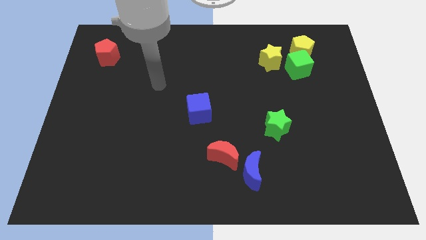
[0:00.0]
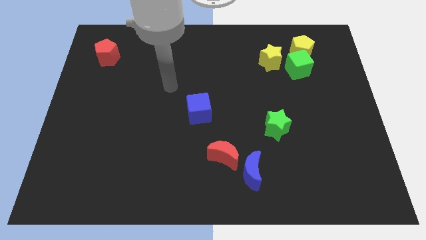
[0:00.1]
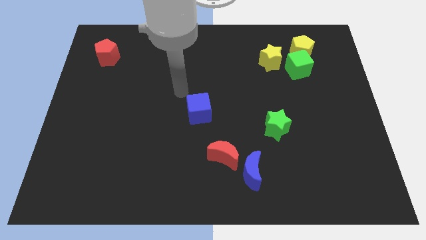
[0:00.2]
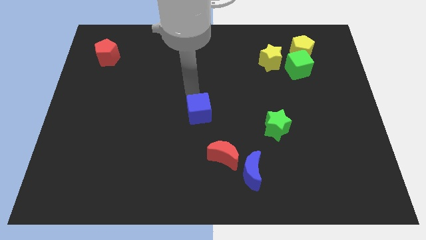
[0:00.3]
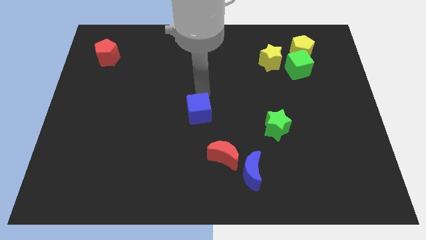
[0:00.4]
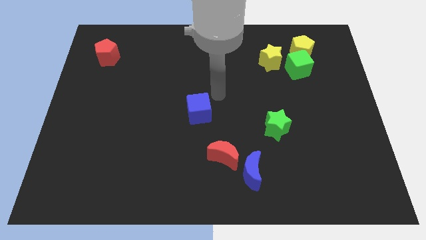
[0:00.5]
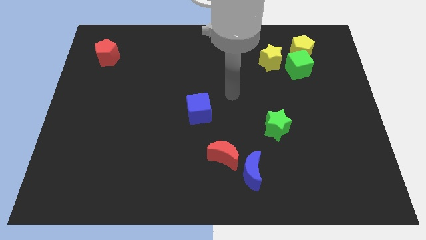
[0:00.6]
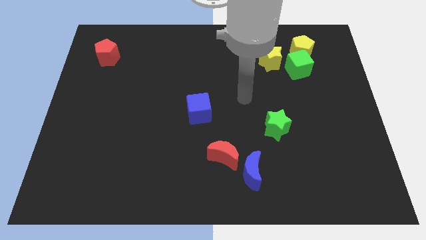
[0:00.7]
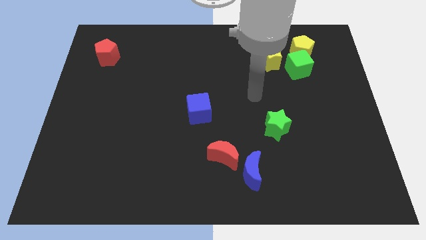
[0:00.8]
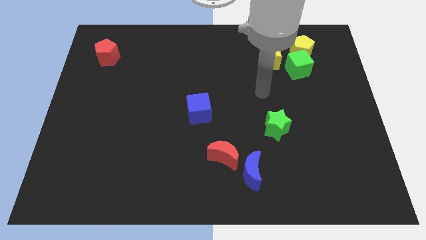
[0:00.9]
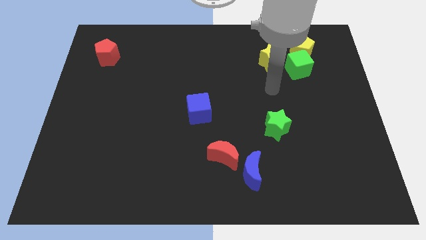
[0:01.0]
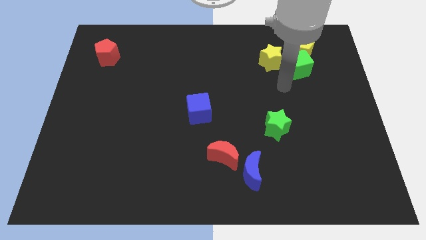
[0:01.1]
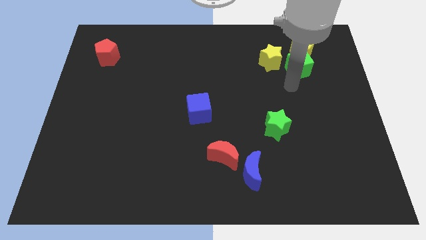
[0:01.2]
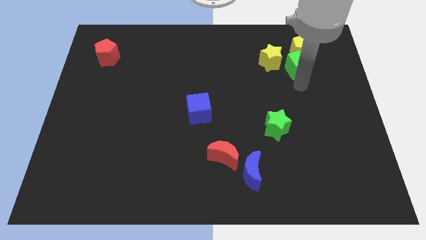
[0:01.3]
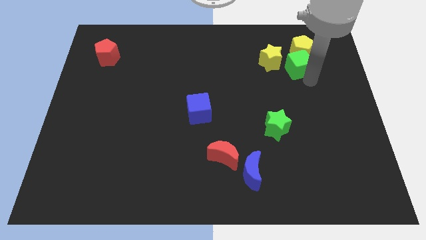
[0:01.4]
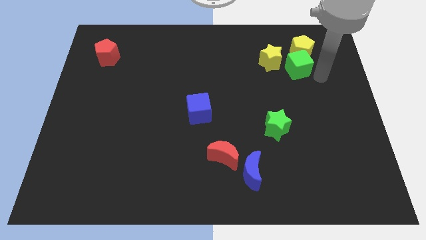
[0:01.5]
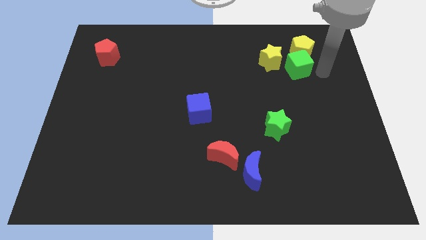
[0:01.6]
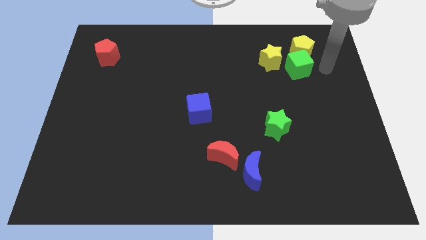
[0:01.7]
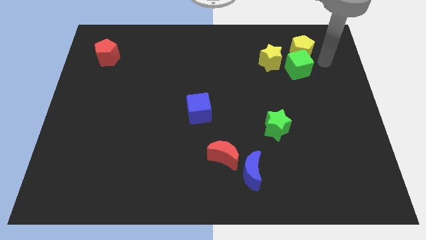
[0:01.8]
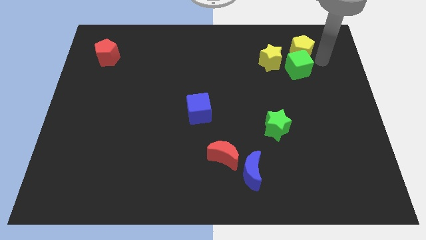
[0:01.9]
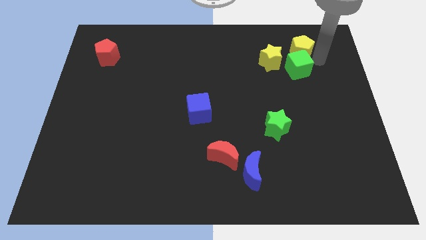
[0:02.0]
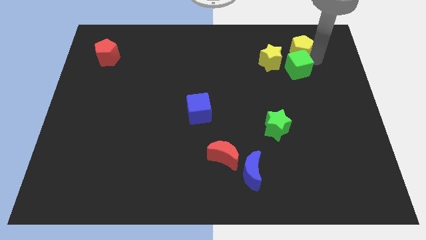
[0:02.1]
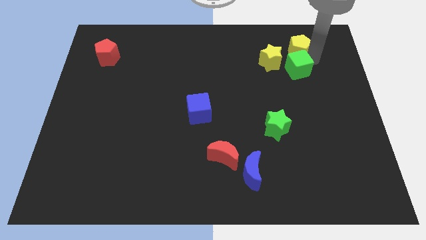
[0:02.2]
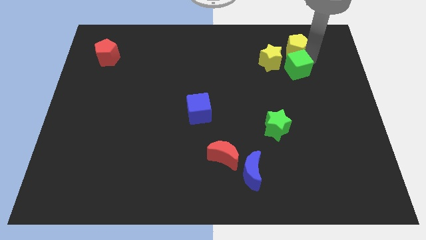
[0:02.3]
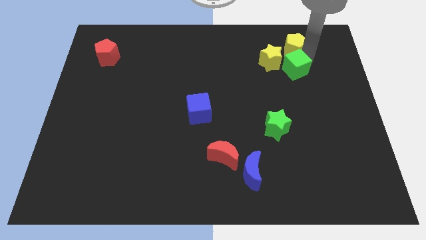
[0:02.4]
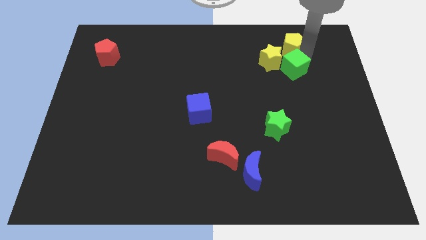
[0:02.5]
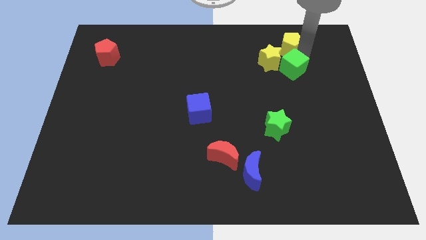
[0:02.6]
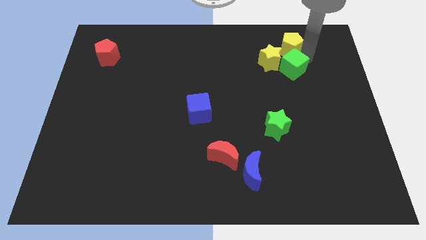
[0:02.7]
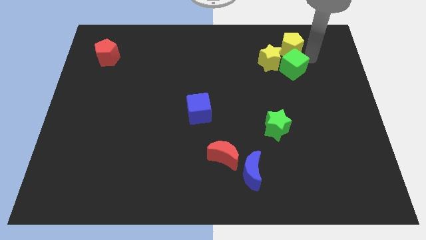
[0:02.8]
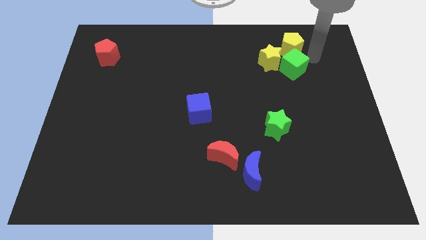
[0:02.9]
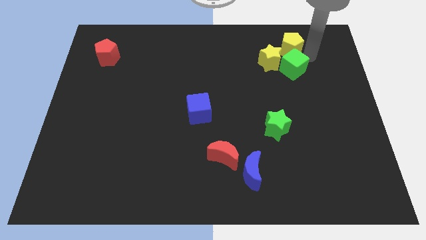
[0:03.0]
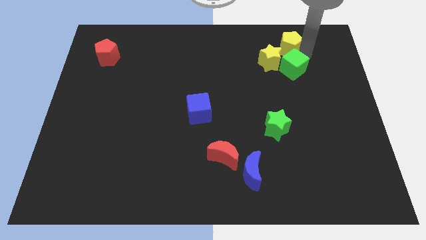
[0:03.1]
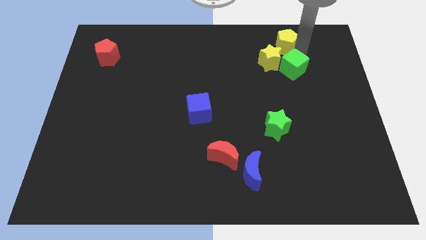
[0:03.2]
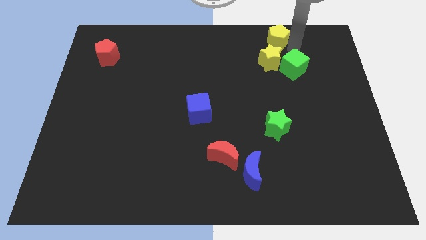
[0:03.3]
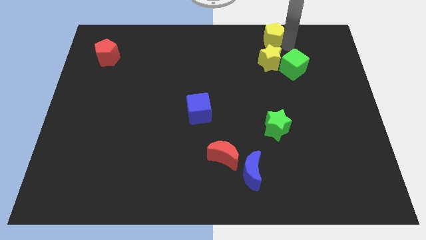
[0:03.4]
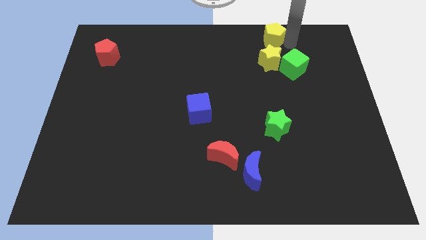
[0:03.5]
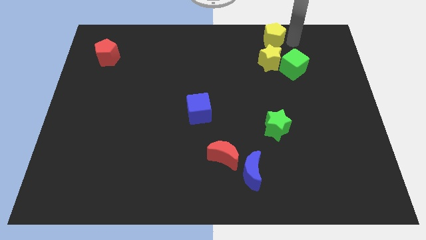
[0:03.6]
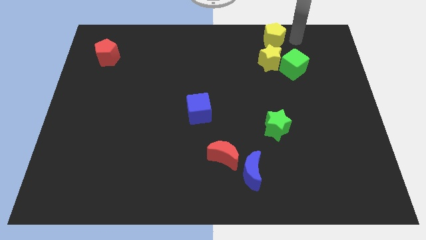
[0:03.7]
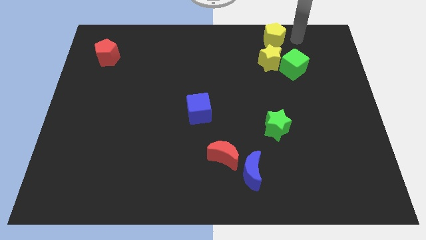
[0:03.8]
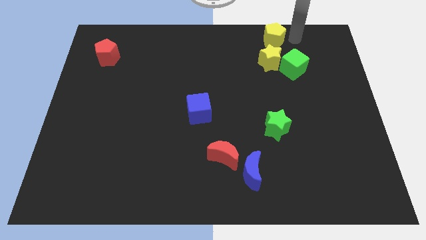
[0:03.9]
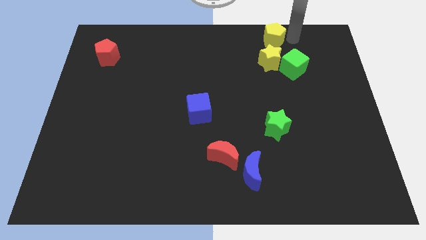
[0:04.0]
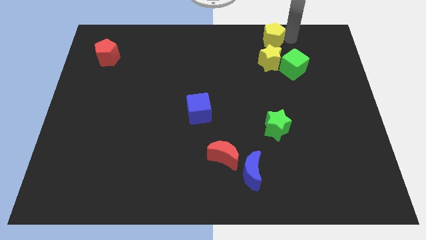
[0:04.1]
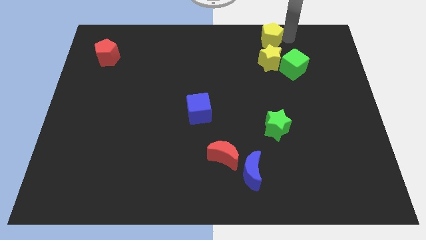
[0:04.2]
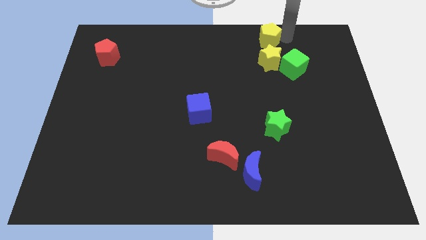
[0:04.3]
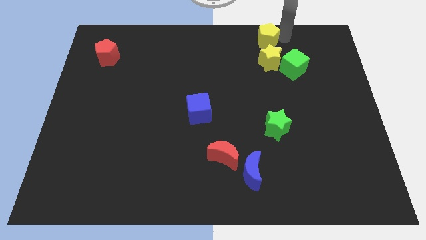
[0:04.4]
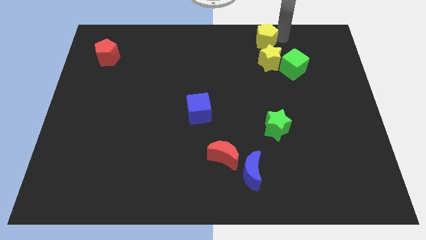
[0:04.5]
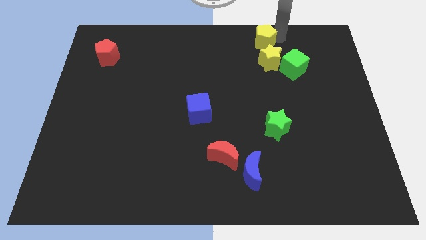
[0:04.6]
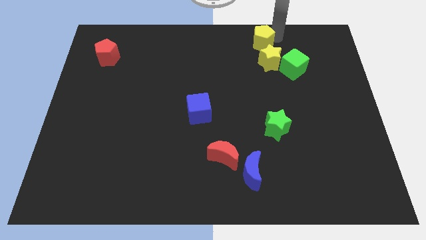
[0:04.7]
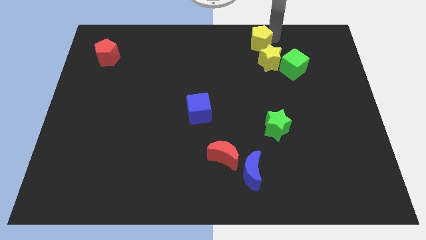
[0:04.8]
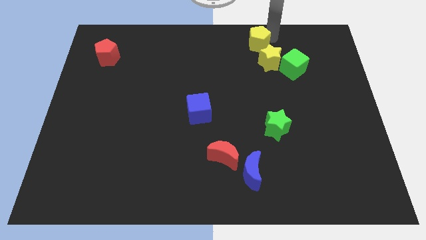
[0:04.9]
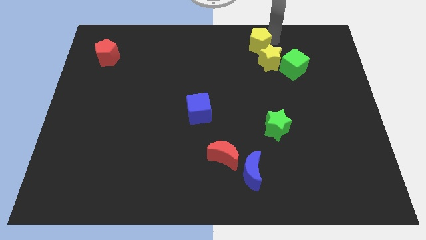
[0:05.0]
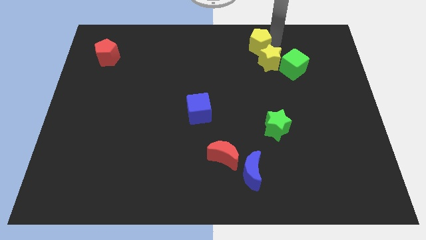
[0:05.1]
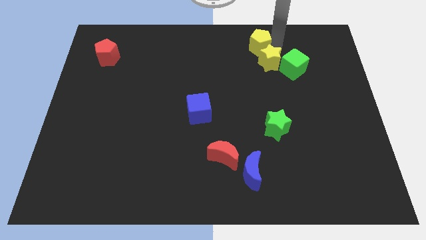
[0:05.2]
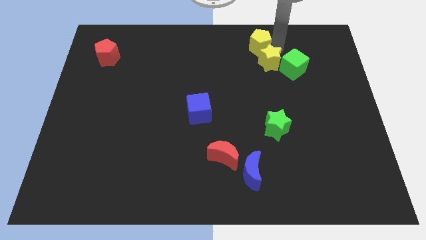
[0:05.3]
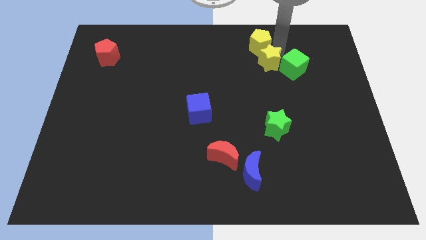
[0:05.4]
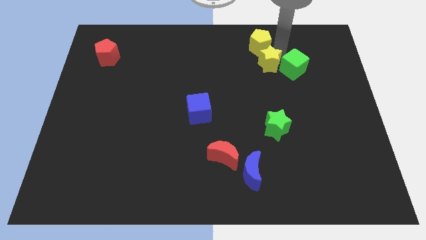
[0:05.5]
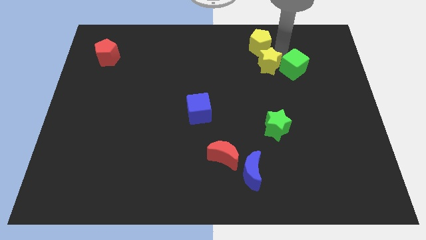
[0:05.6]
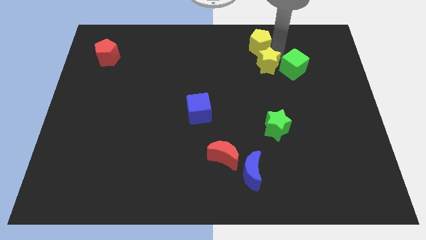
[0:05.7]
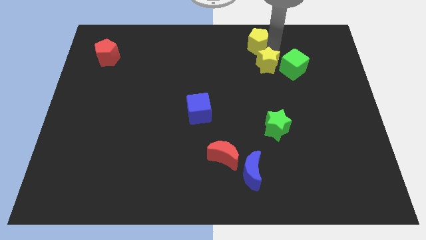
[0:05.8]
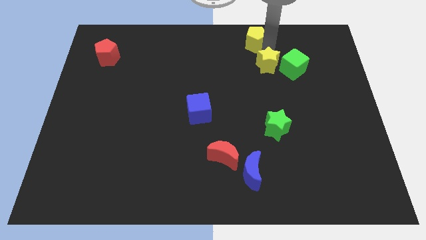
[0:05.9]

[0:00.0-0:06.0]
put the yellow pentagon to the top
